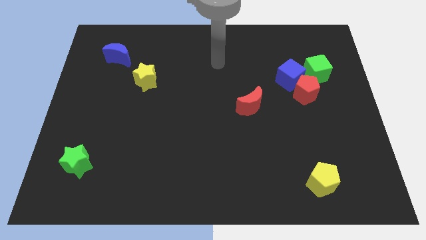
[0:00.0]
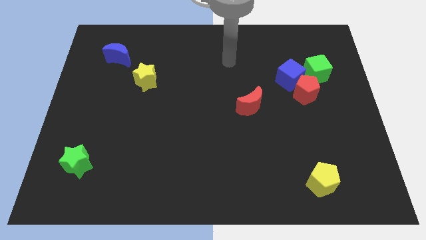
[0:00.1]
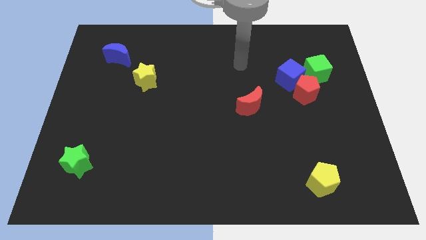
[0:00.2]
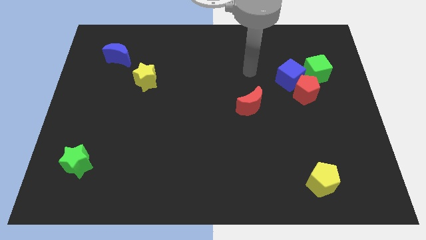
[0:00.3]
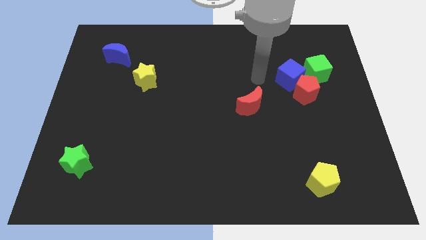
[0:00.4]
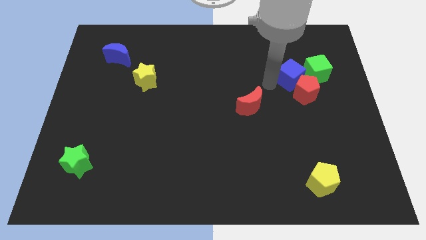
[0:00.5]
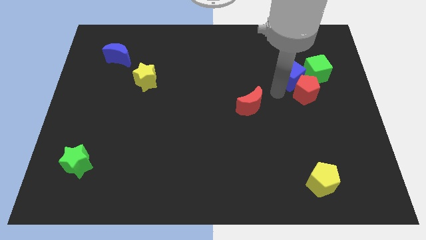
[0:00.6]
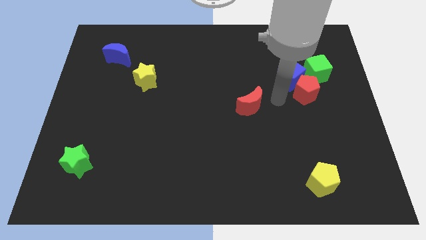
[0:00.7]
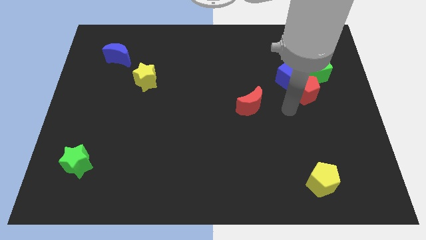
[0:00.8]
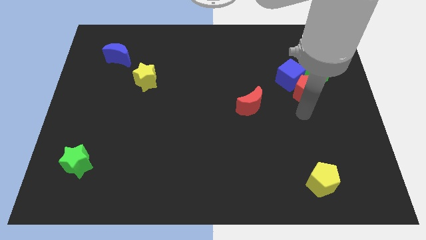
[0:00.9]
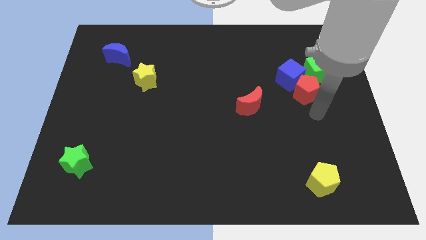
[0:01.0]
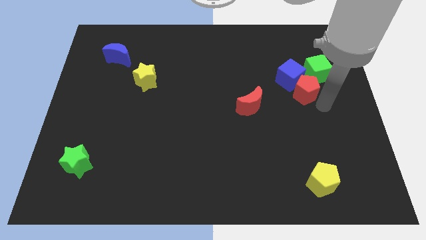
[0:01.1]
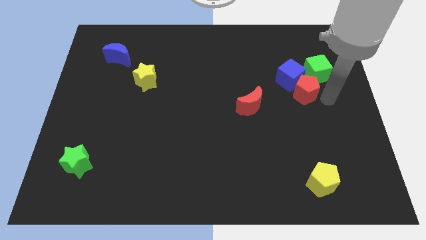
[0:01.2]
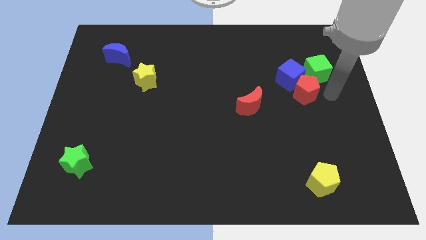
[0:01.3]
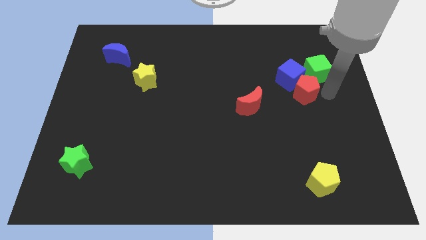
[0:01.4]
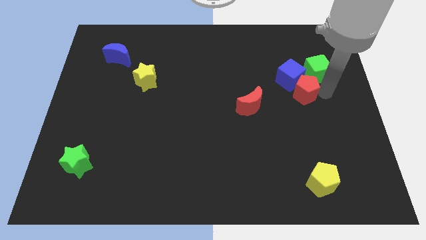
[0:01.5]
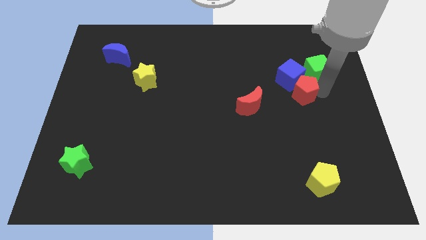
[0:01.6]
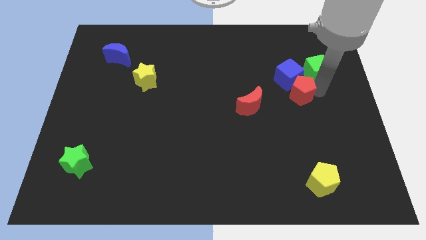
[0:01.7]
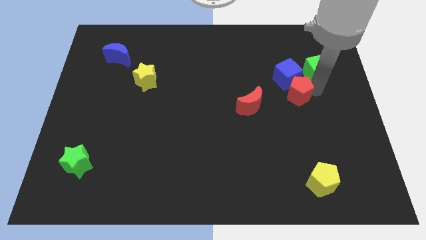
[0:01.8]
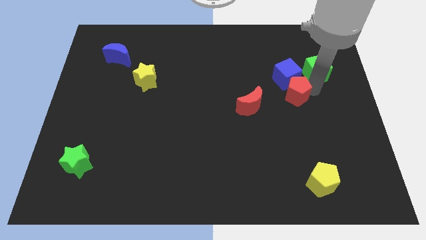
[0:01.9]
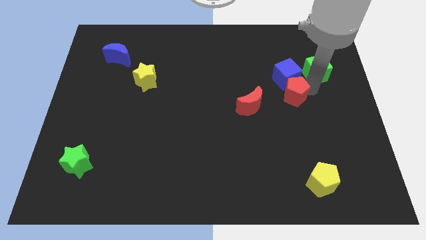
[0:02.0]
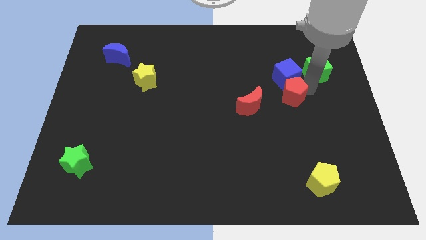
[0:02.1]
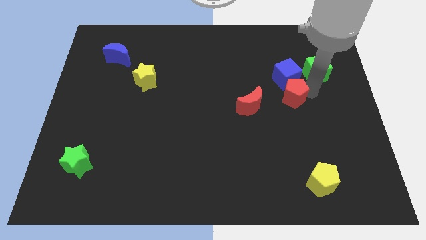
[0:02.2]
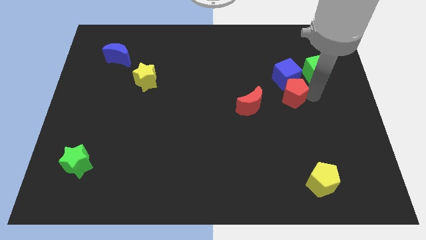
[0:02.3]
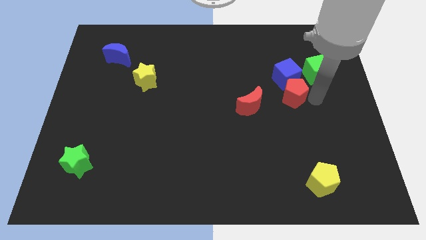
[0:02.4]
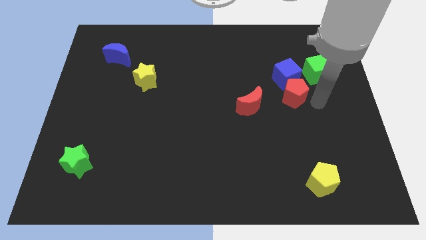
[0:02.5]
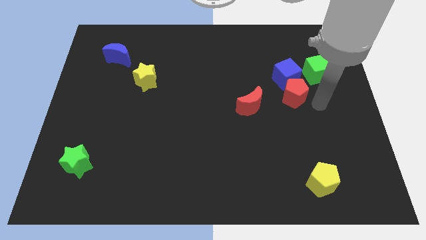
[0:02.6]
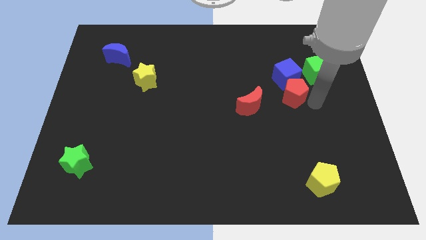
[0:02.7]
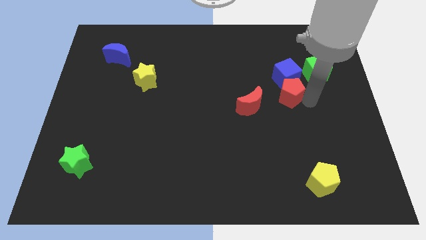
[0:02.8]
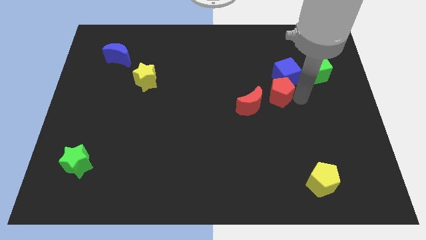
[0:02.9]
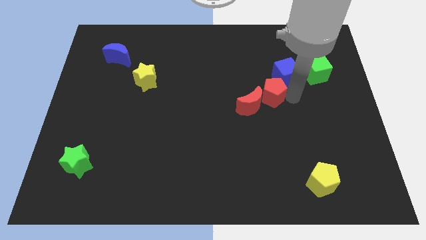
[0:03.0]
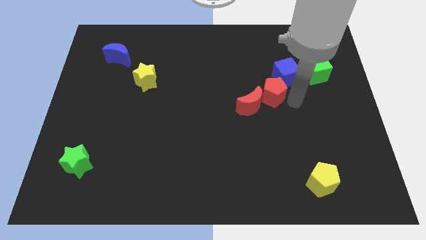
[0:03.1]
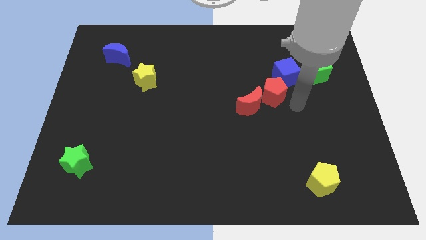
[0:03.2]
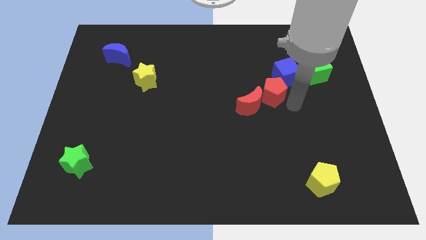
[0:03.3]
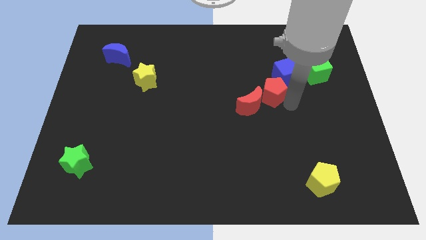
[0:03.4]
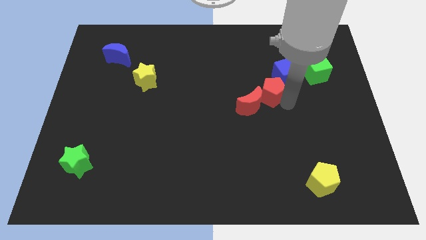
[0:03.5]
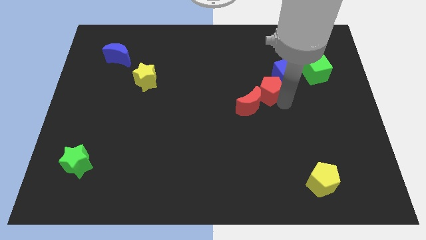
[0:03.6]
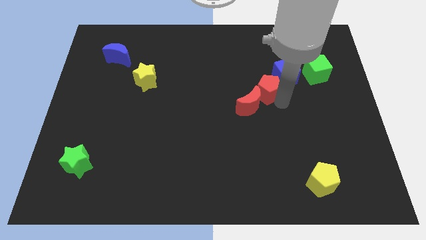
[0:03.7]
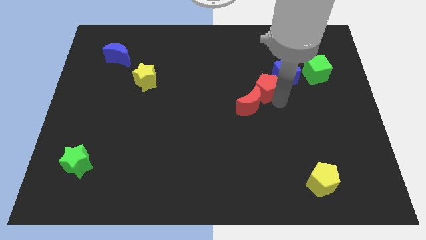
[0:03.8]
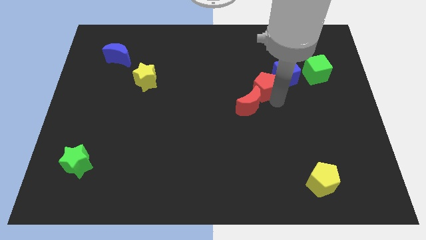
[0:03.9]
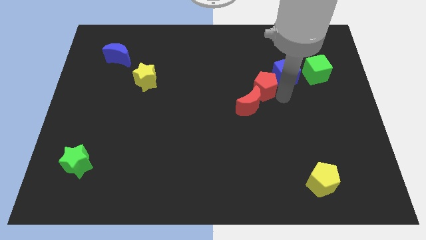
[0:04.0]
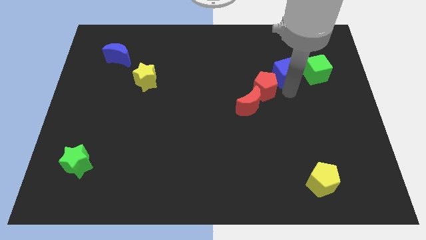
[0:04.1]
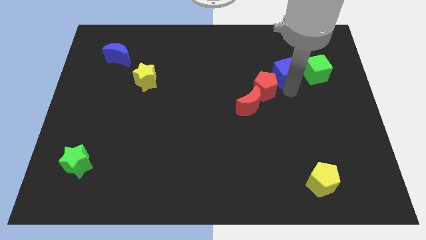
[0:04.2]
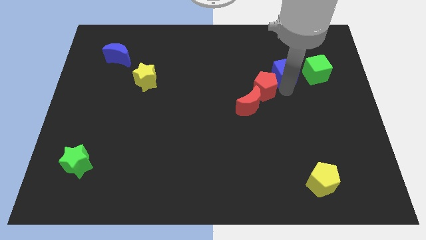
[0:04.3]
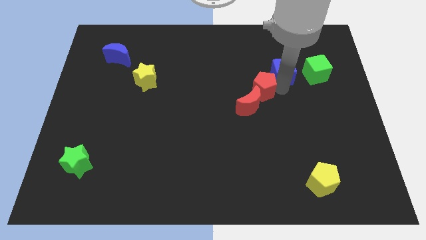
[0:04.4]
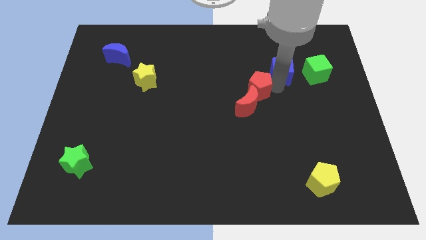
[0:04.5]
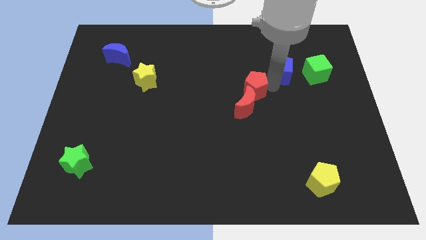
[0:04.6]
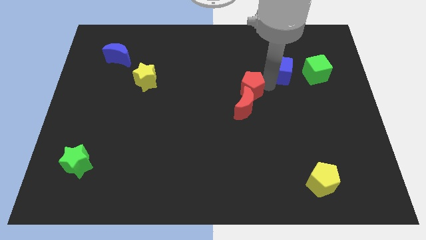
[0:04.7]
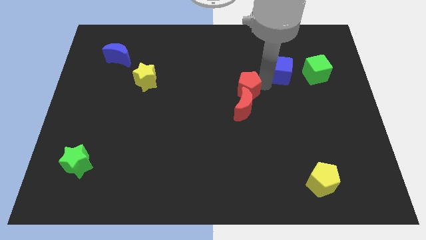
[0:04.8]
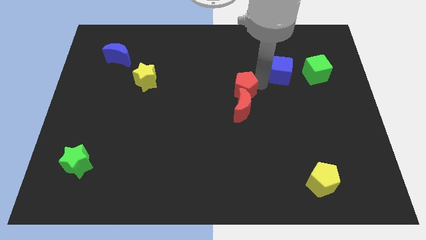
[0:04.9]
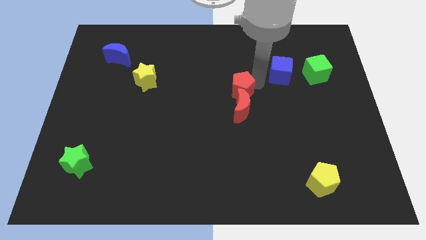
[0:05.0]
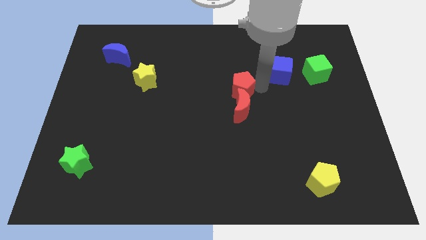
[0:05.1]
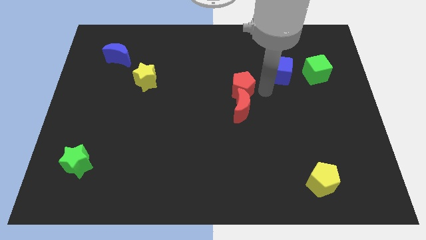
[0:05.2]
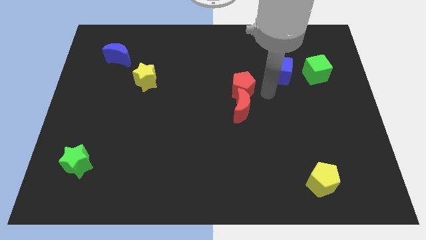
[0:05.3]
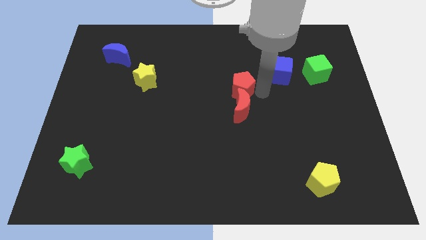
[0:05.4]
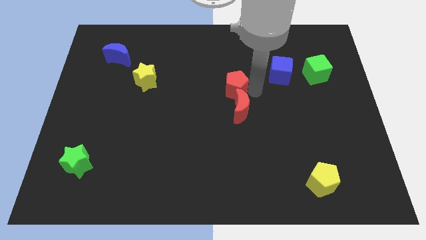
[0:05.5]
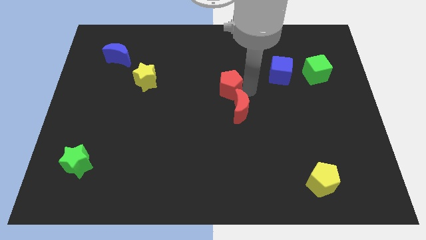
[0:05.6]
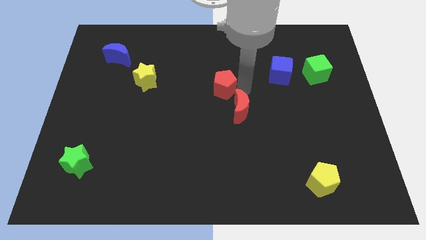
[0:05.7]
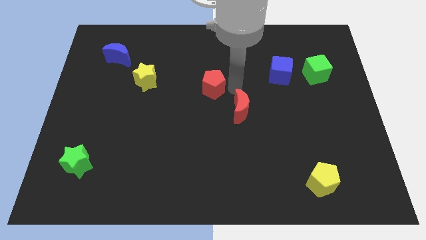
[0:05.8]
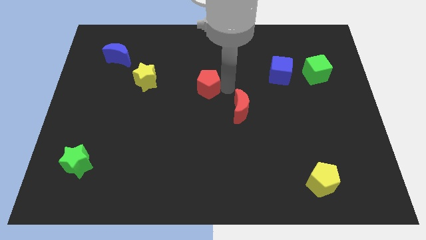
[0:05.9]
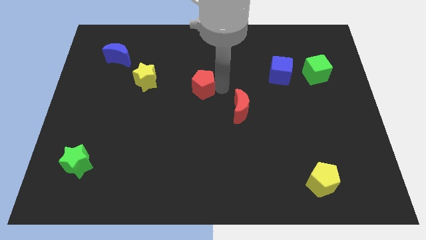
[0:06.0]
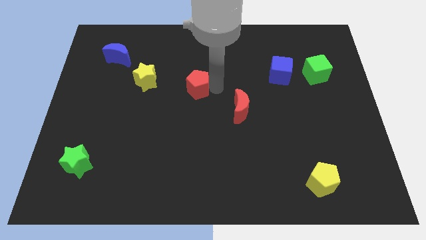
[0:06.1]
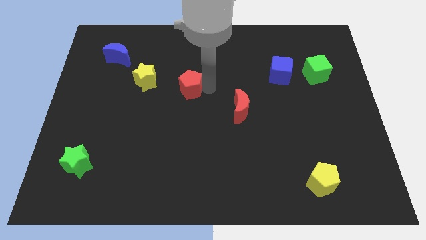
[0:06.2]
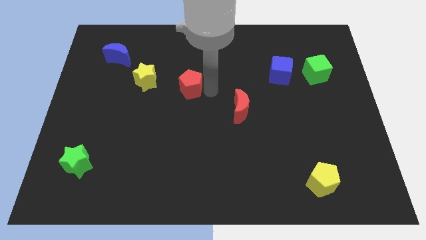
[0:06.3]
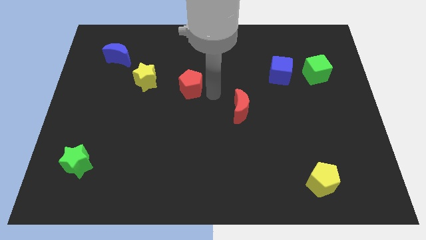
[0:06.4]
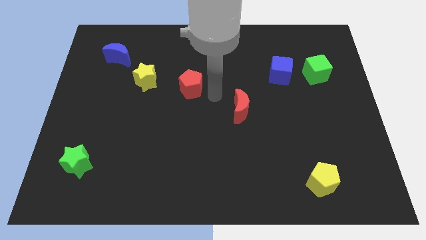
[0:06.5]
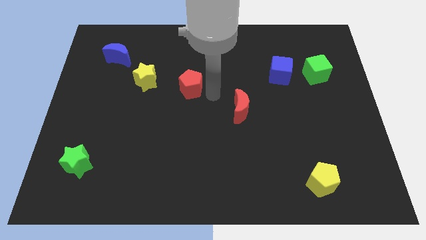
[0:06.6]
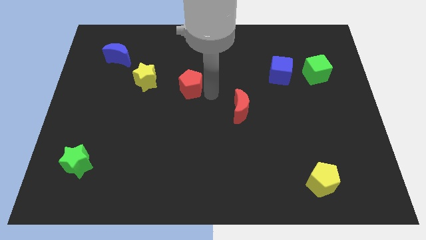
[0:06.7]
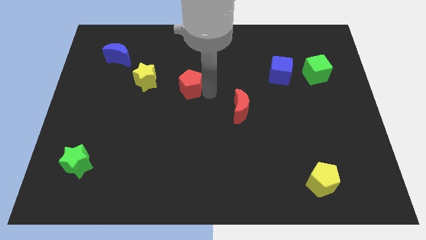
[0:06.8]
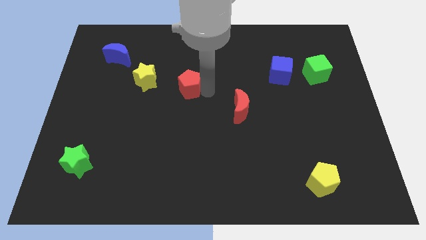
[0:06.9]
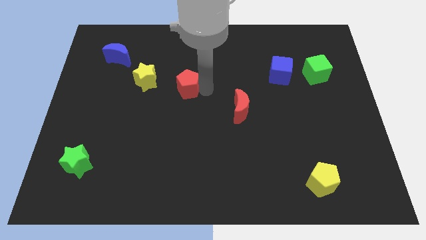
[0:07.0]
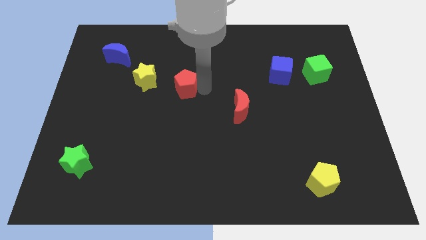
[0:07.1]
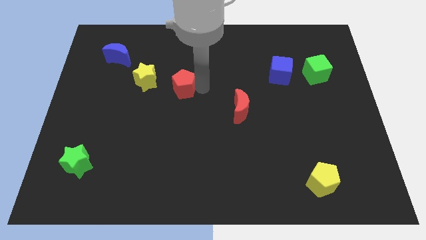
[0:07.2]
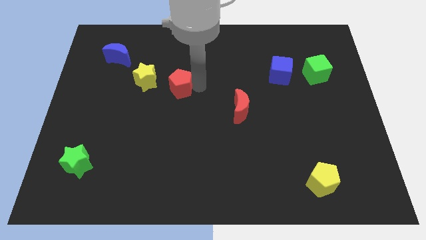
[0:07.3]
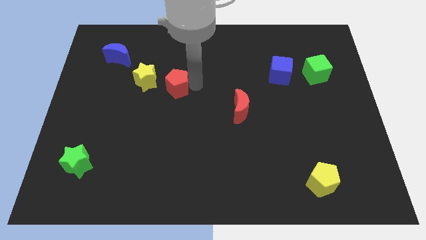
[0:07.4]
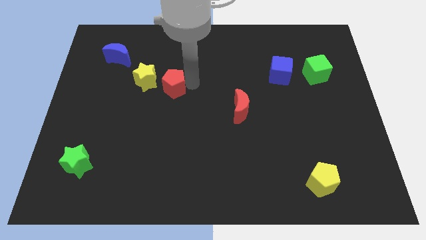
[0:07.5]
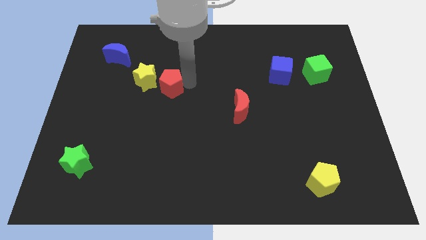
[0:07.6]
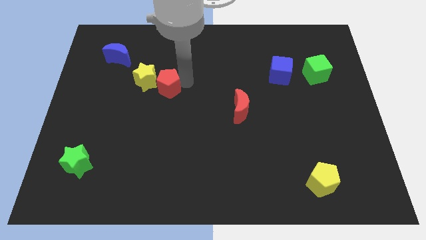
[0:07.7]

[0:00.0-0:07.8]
move the red pentagon next to the yellow star
